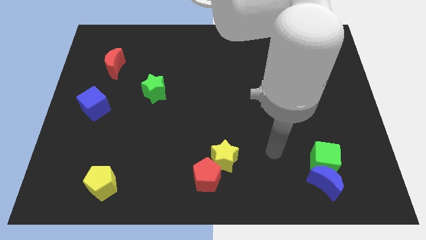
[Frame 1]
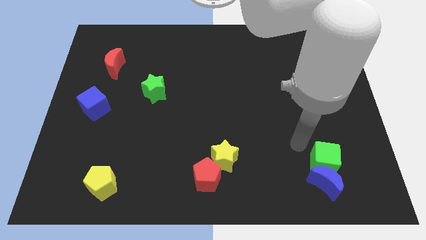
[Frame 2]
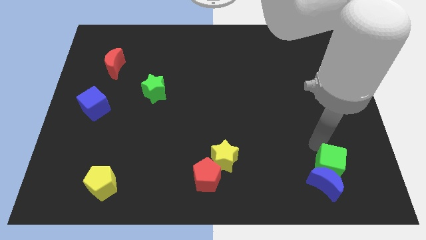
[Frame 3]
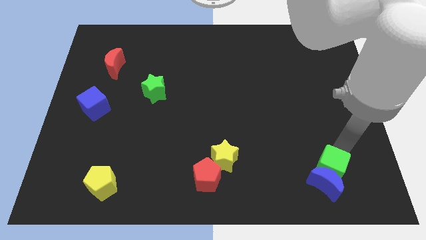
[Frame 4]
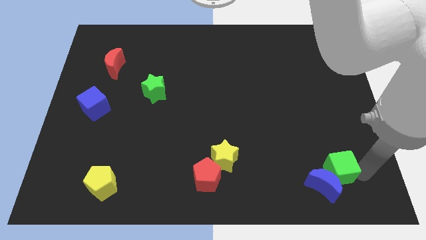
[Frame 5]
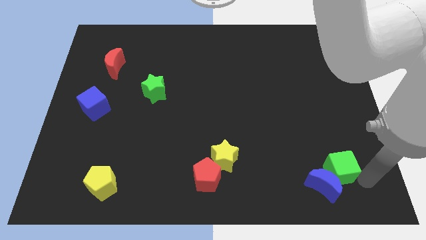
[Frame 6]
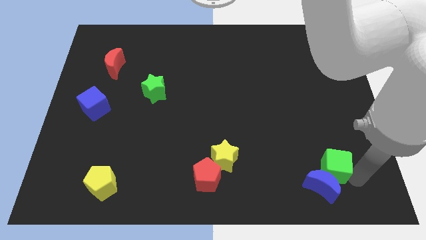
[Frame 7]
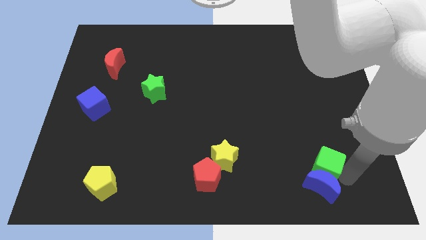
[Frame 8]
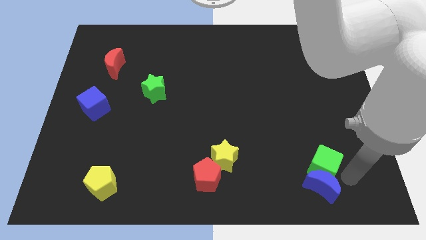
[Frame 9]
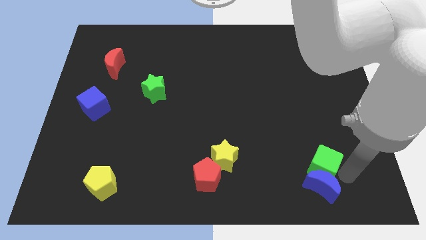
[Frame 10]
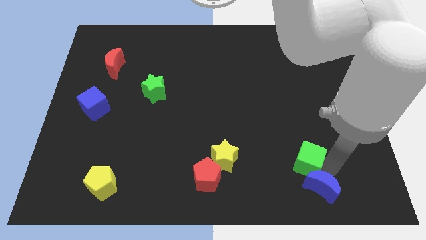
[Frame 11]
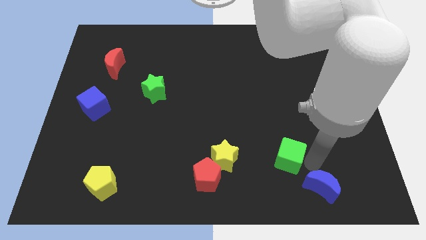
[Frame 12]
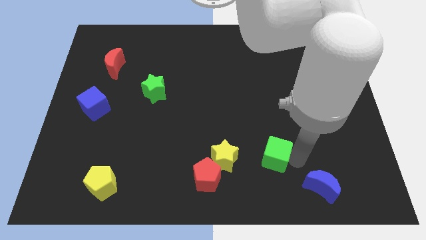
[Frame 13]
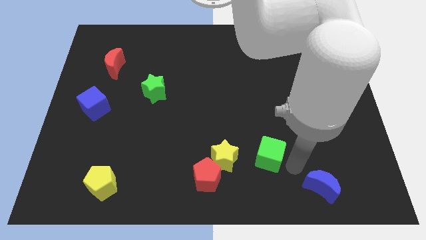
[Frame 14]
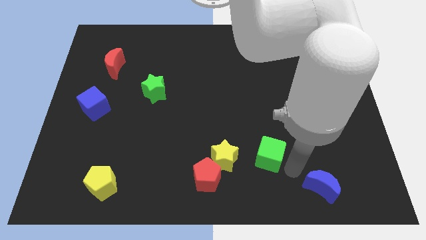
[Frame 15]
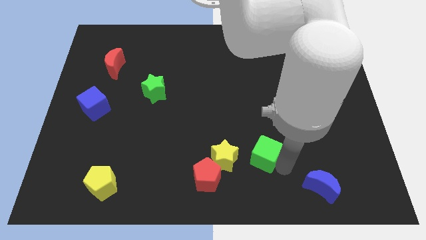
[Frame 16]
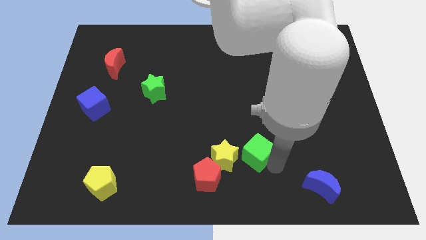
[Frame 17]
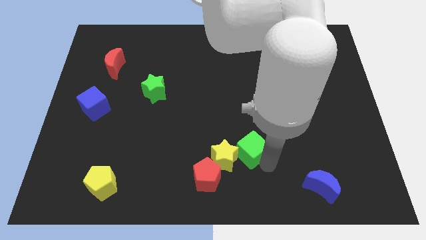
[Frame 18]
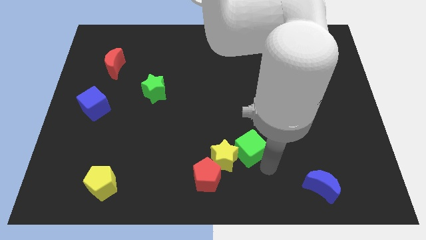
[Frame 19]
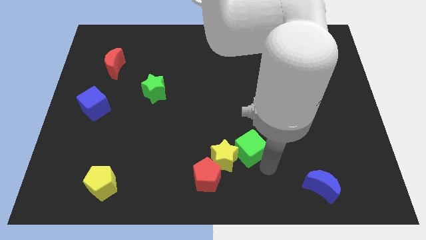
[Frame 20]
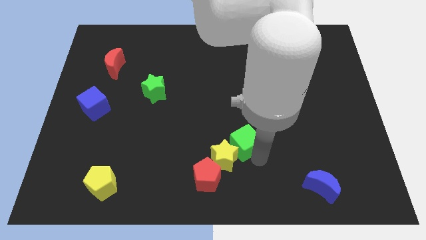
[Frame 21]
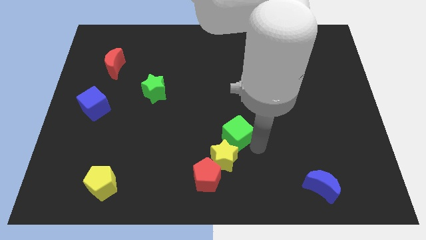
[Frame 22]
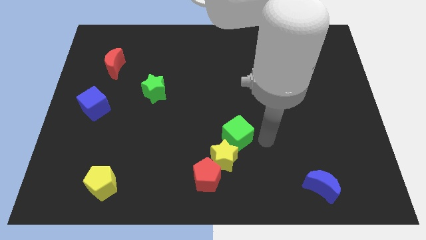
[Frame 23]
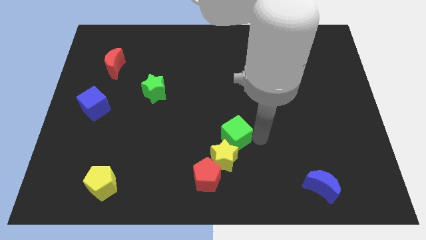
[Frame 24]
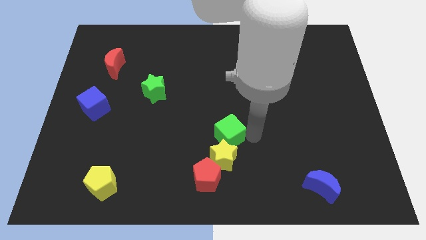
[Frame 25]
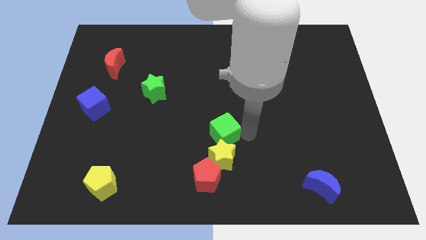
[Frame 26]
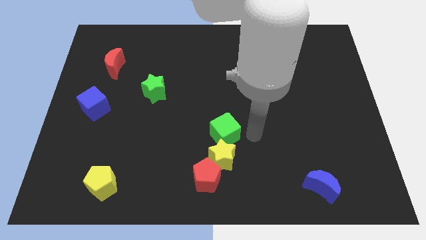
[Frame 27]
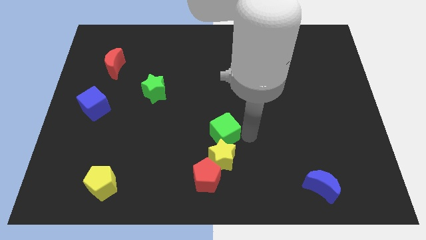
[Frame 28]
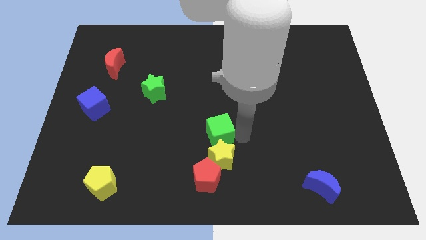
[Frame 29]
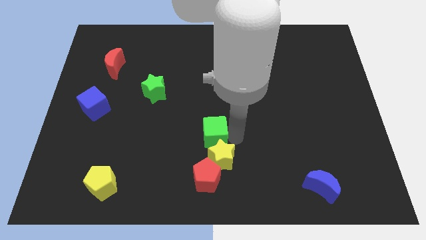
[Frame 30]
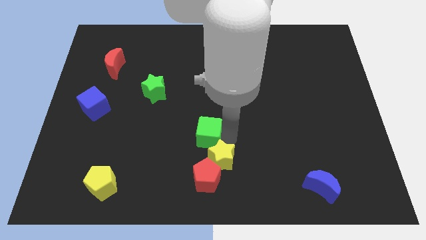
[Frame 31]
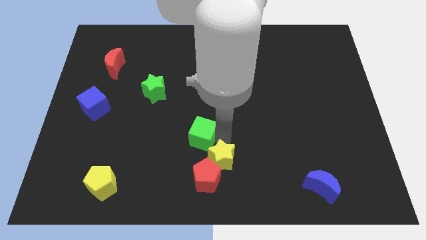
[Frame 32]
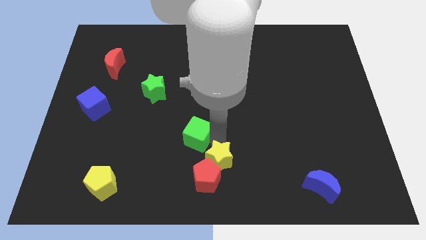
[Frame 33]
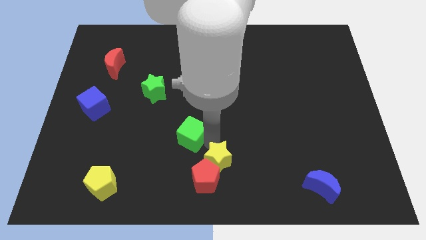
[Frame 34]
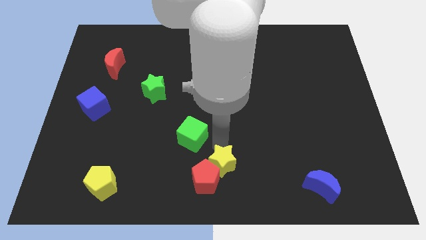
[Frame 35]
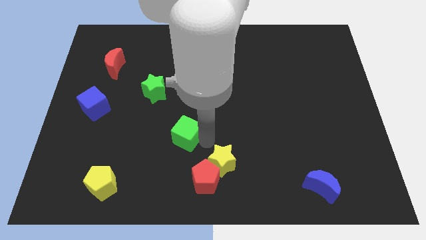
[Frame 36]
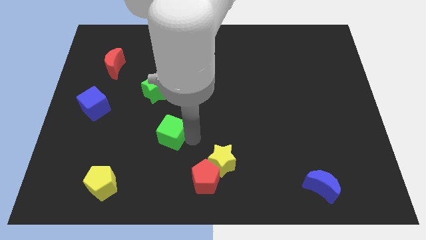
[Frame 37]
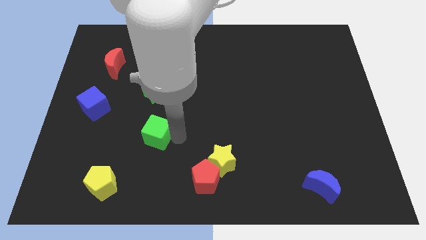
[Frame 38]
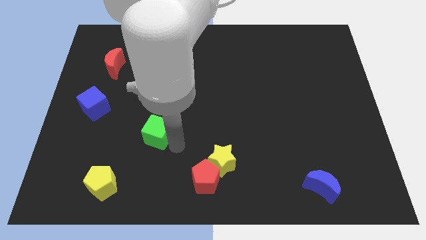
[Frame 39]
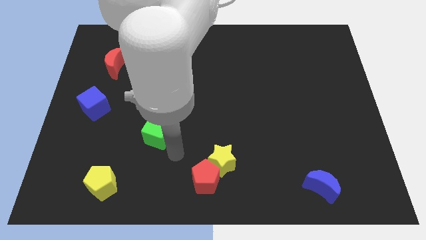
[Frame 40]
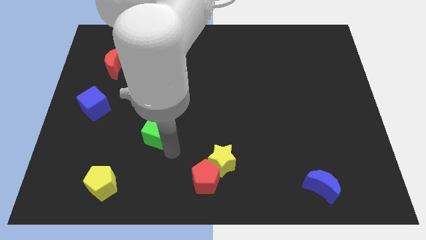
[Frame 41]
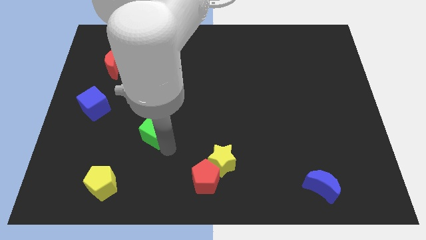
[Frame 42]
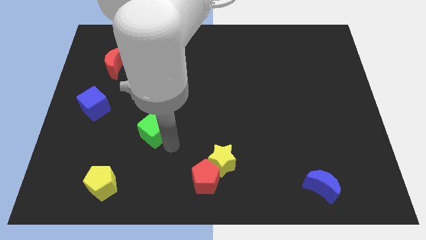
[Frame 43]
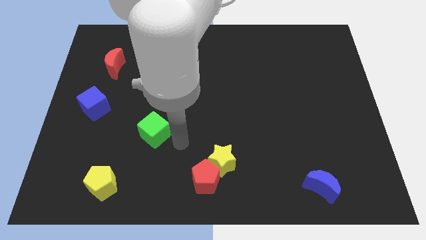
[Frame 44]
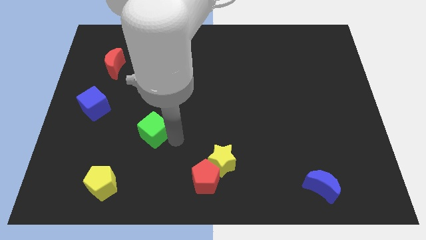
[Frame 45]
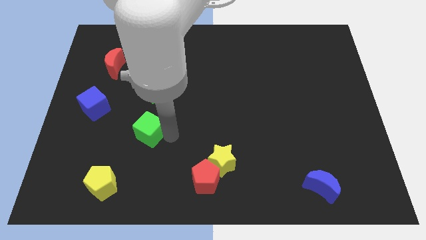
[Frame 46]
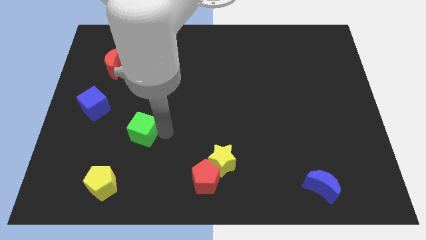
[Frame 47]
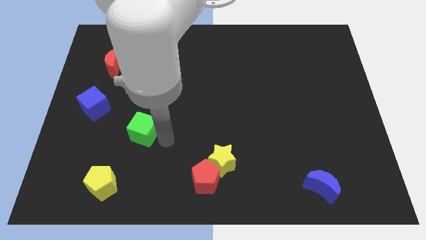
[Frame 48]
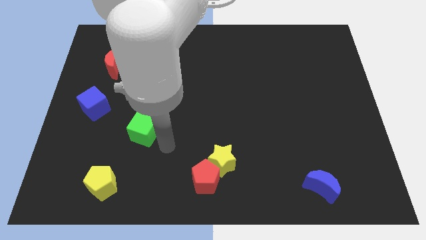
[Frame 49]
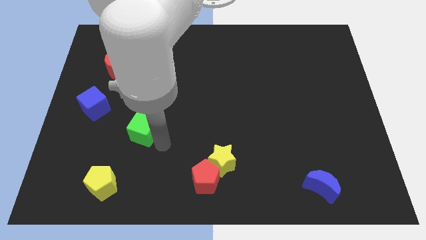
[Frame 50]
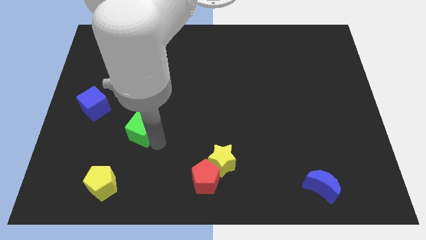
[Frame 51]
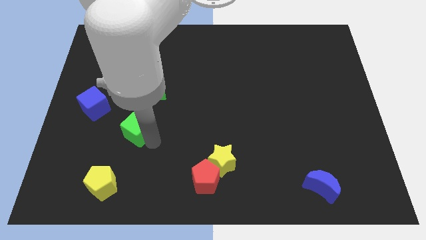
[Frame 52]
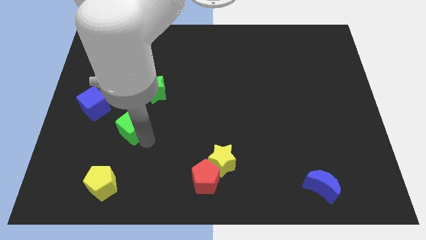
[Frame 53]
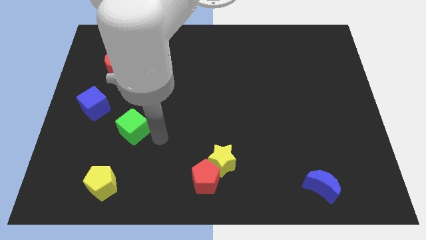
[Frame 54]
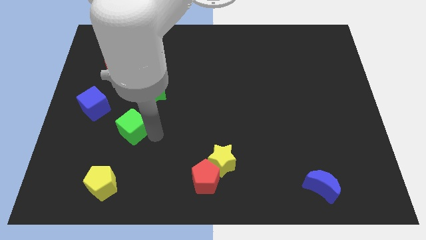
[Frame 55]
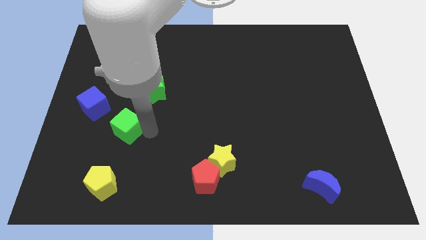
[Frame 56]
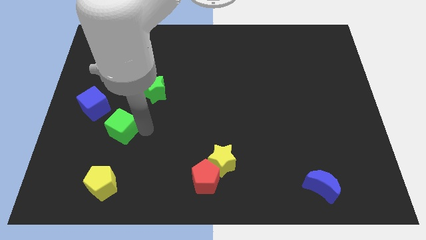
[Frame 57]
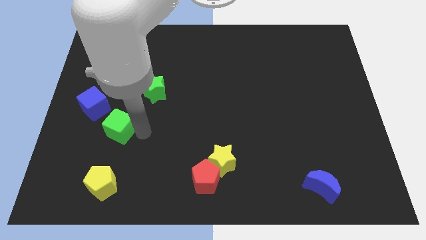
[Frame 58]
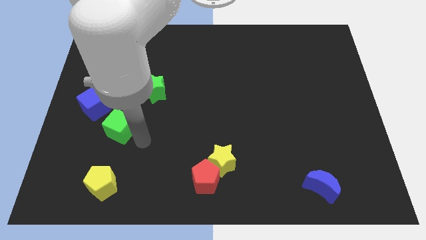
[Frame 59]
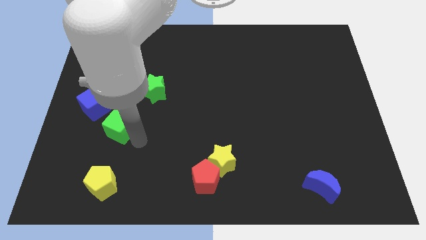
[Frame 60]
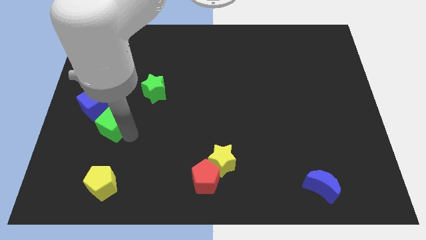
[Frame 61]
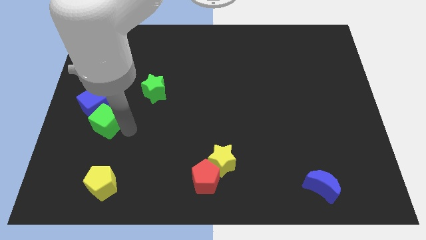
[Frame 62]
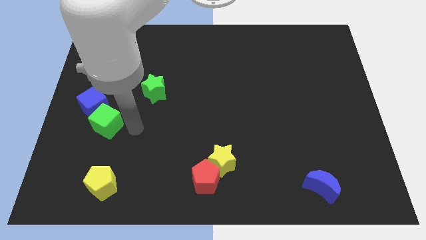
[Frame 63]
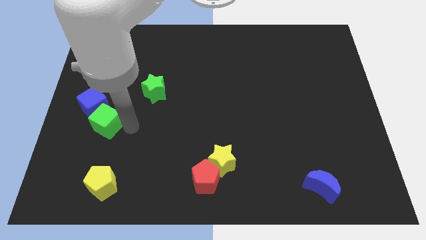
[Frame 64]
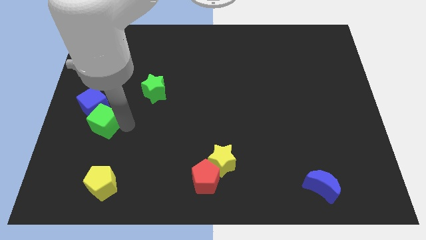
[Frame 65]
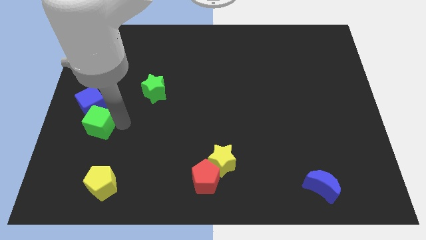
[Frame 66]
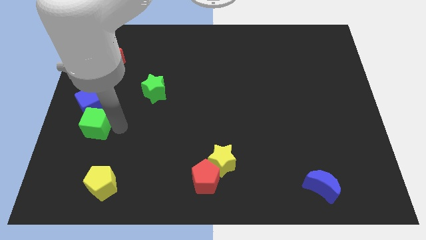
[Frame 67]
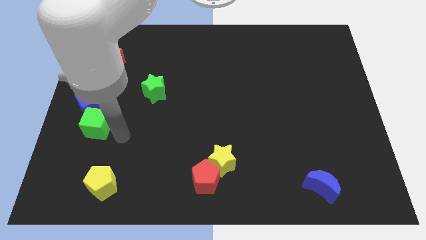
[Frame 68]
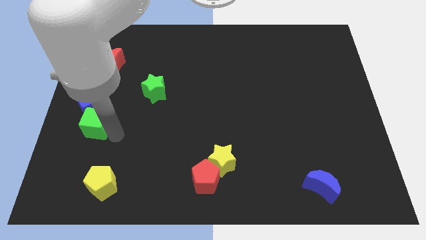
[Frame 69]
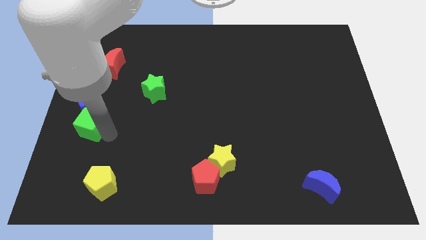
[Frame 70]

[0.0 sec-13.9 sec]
move the green cube to the left side of the board

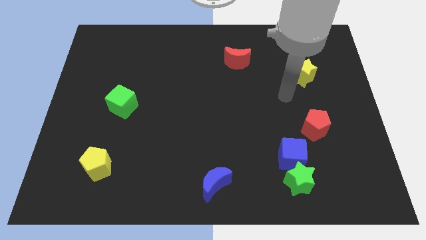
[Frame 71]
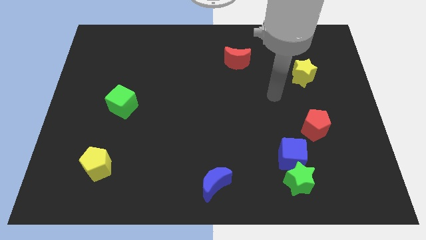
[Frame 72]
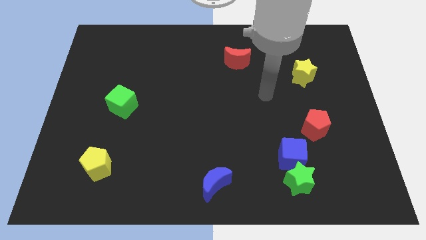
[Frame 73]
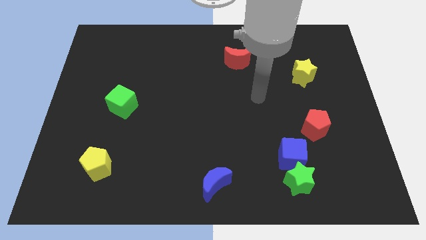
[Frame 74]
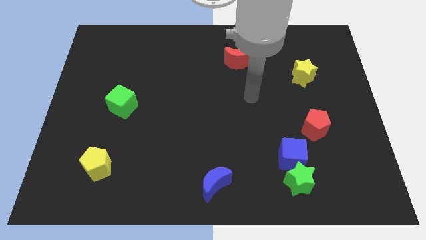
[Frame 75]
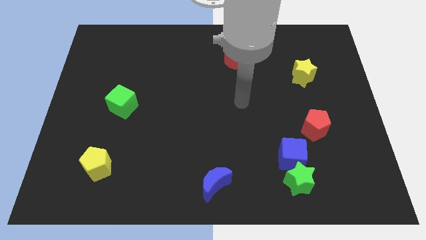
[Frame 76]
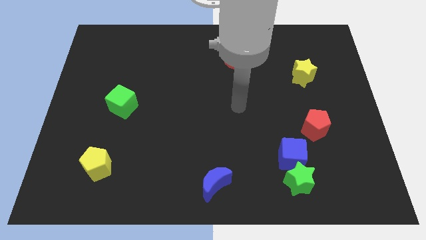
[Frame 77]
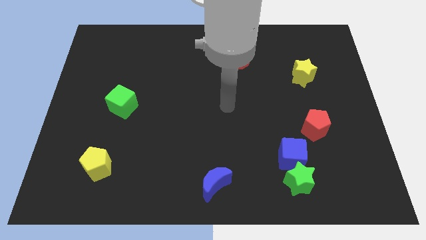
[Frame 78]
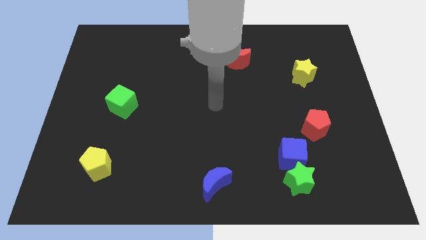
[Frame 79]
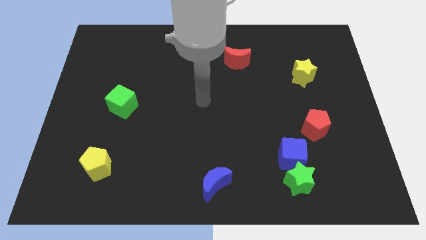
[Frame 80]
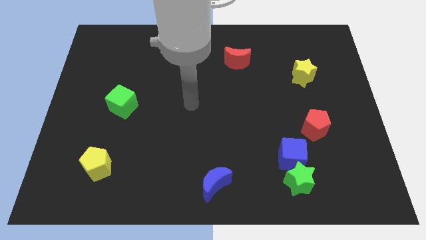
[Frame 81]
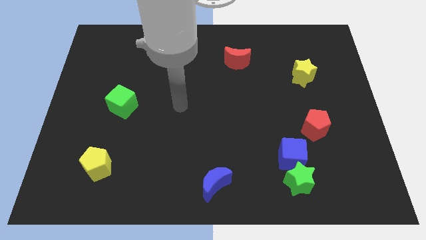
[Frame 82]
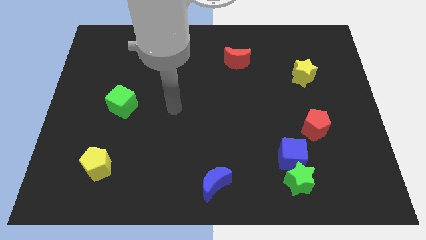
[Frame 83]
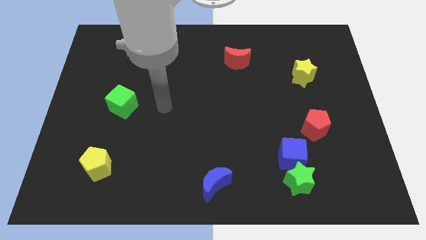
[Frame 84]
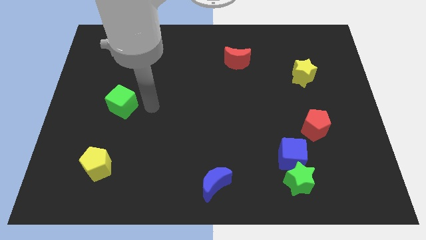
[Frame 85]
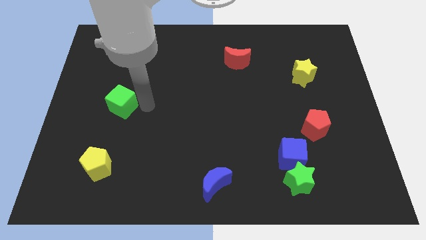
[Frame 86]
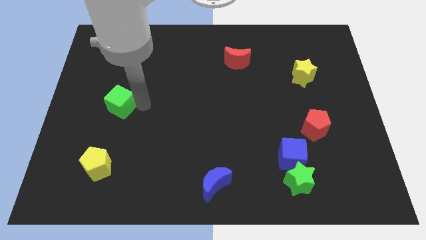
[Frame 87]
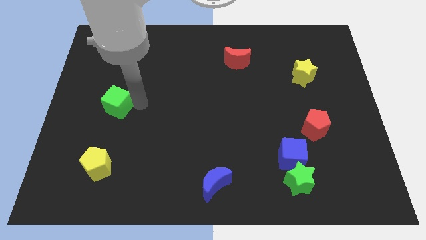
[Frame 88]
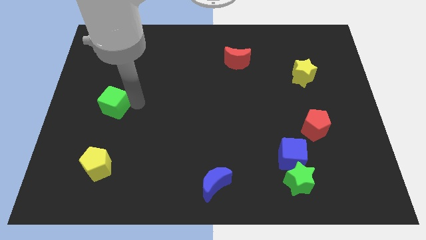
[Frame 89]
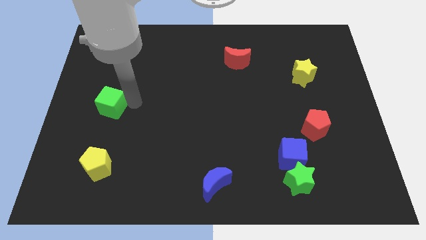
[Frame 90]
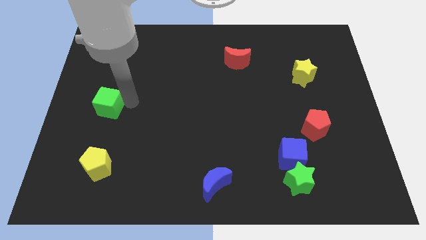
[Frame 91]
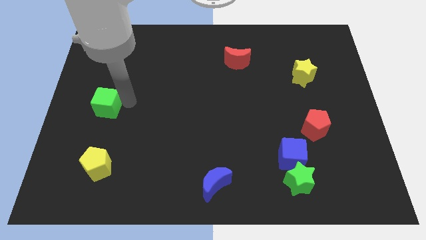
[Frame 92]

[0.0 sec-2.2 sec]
put the green cube to the center left
